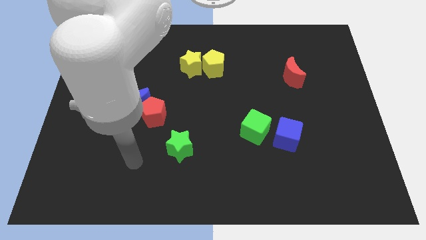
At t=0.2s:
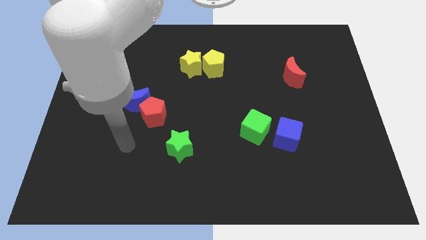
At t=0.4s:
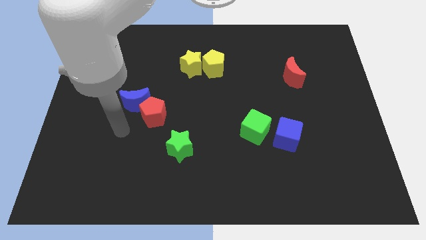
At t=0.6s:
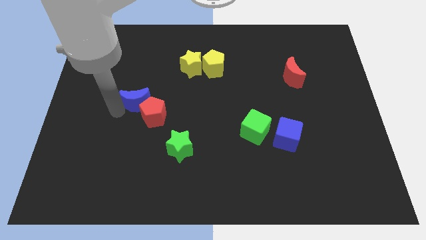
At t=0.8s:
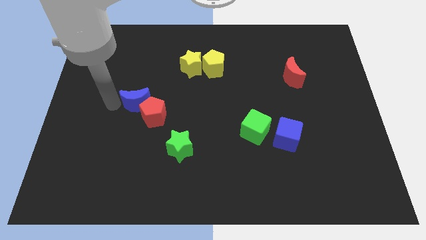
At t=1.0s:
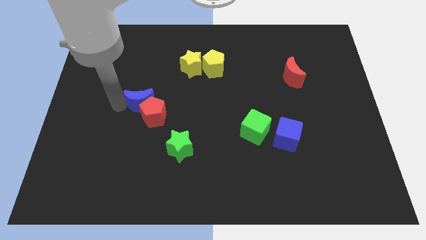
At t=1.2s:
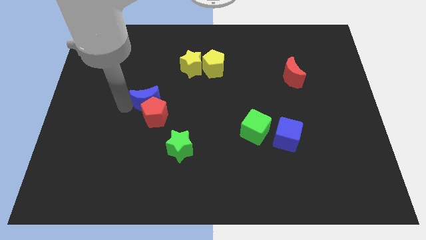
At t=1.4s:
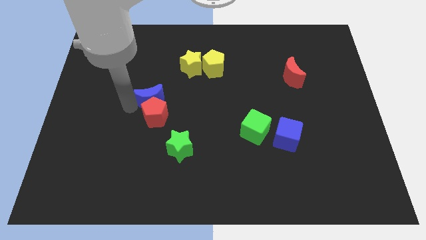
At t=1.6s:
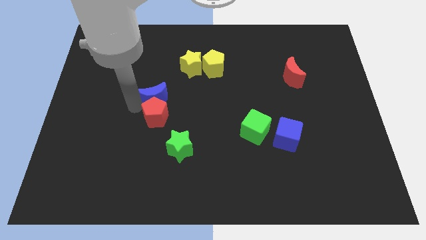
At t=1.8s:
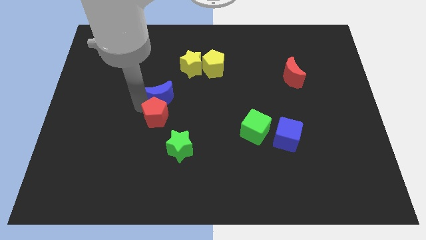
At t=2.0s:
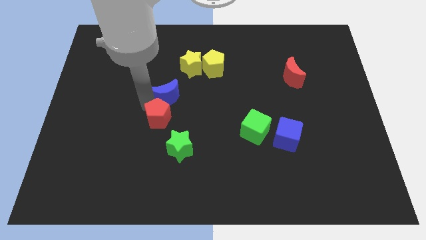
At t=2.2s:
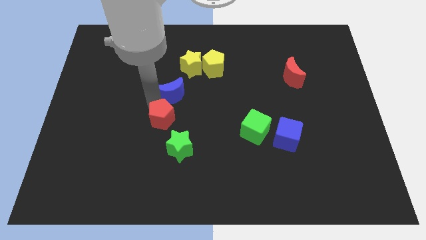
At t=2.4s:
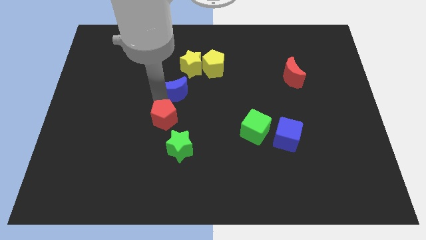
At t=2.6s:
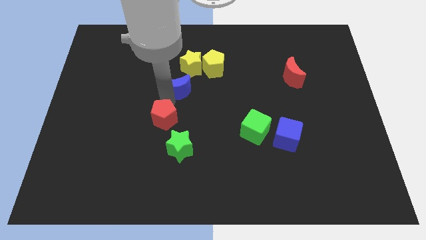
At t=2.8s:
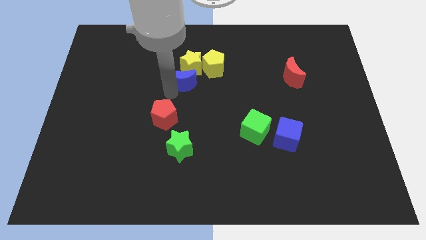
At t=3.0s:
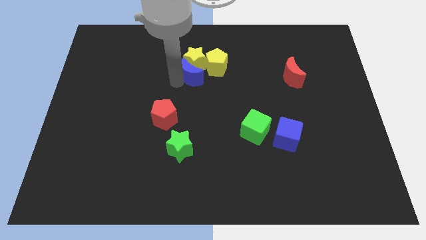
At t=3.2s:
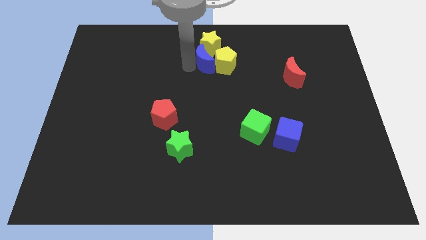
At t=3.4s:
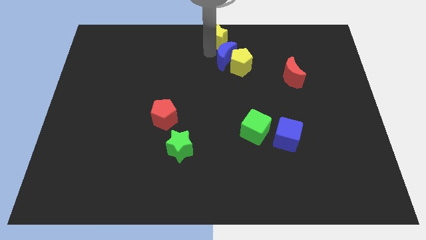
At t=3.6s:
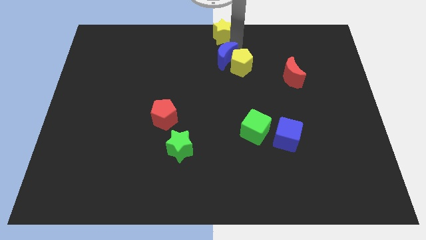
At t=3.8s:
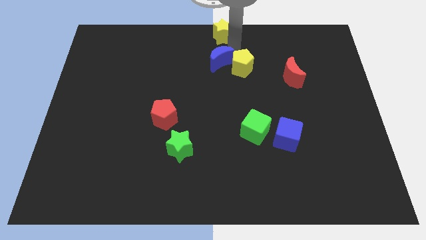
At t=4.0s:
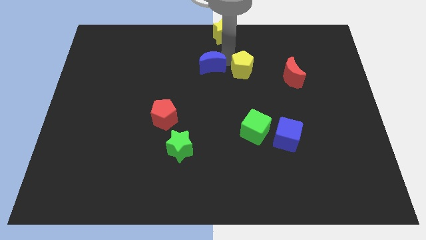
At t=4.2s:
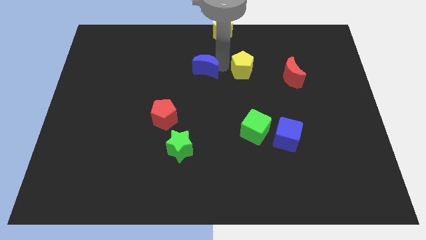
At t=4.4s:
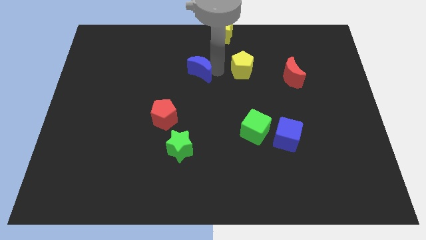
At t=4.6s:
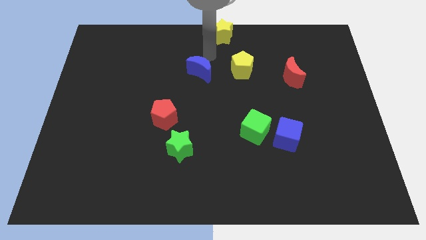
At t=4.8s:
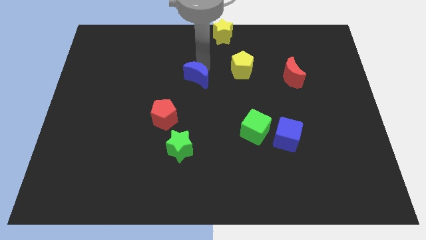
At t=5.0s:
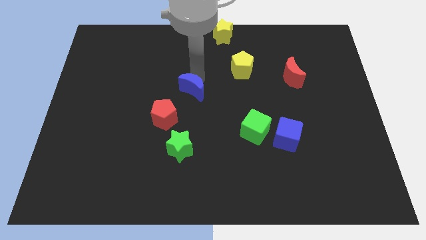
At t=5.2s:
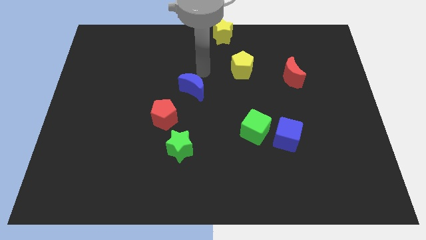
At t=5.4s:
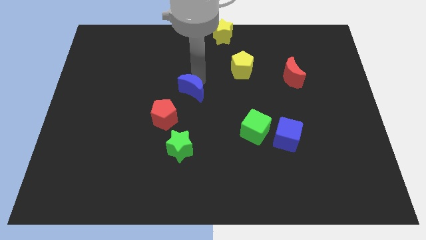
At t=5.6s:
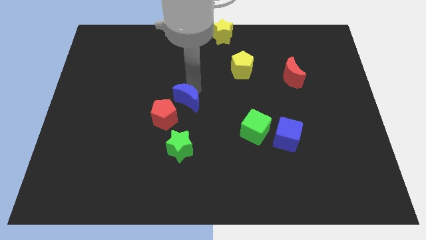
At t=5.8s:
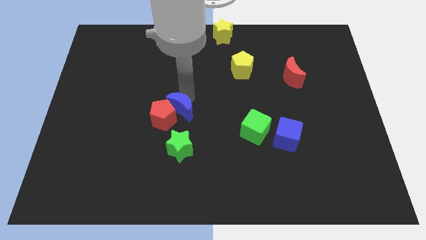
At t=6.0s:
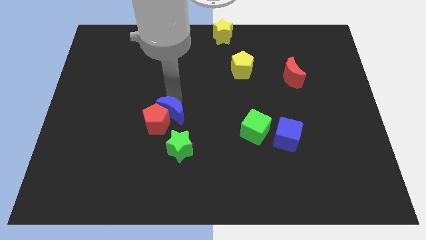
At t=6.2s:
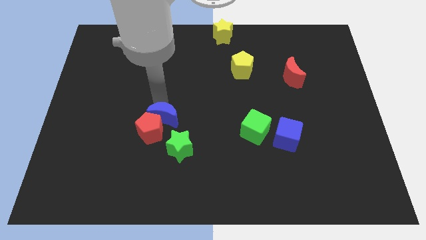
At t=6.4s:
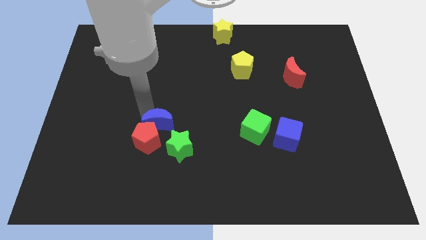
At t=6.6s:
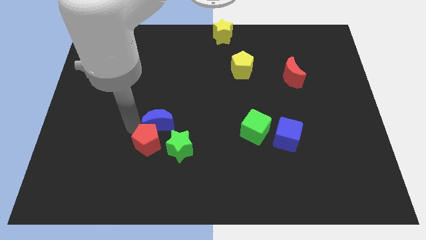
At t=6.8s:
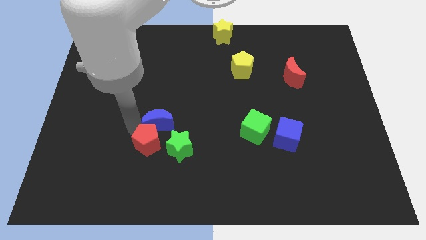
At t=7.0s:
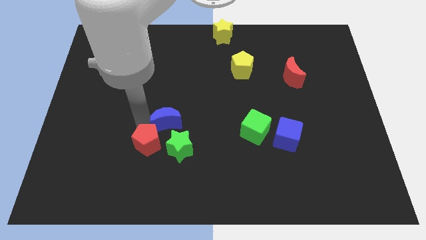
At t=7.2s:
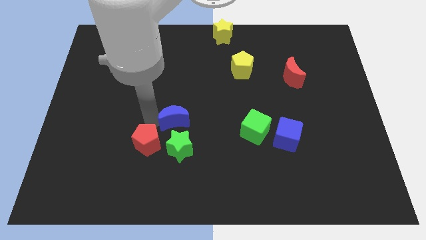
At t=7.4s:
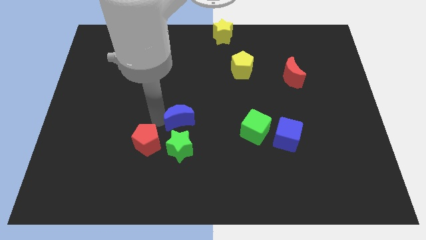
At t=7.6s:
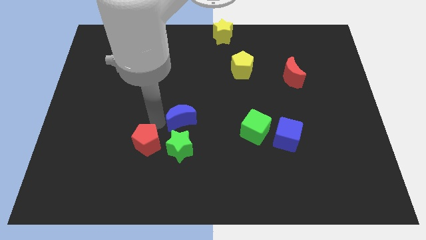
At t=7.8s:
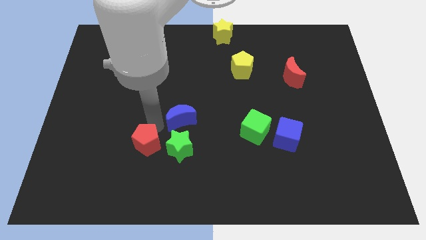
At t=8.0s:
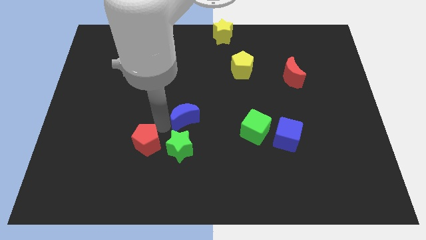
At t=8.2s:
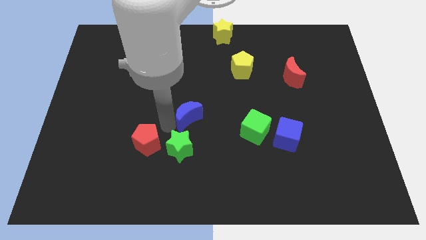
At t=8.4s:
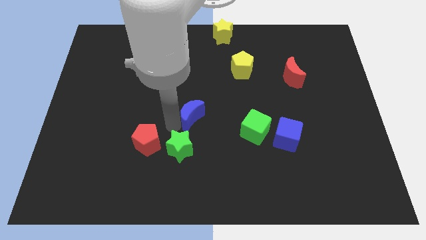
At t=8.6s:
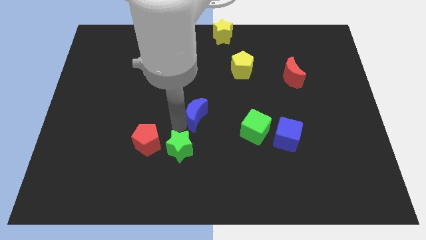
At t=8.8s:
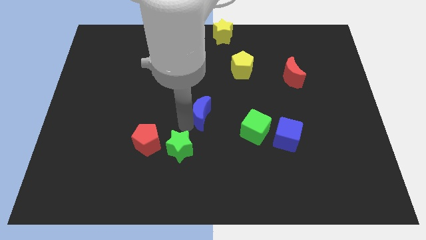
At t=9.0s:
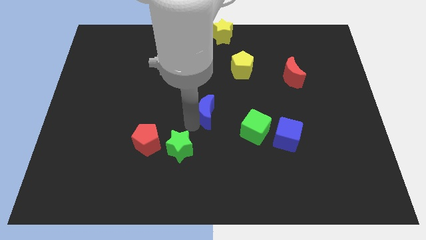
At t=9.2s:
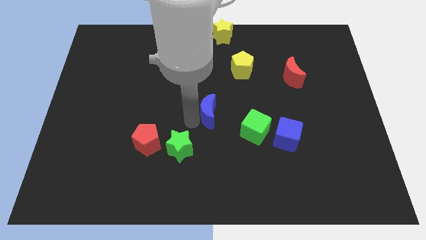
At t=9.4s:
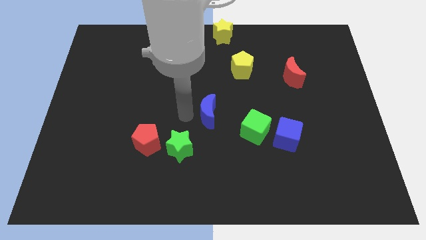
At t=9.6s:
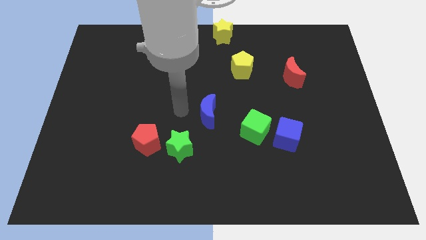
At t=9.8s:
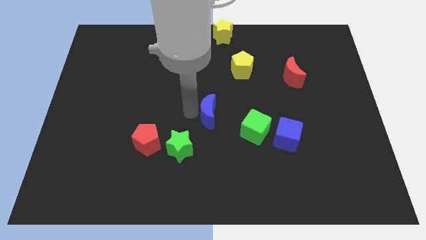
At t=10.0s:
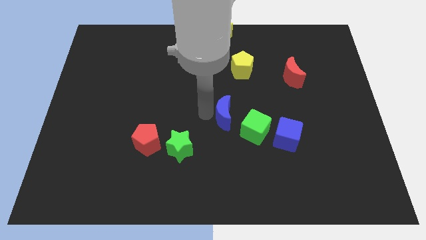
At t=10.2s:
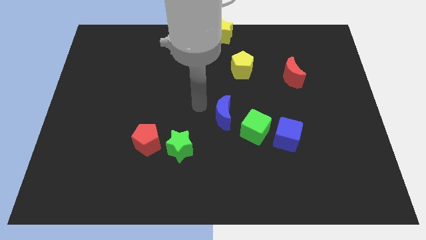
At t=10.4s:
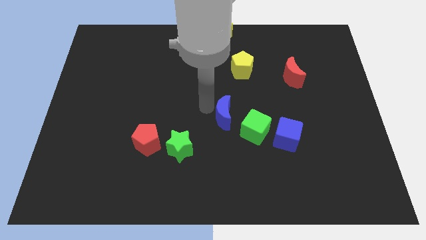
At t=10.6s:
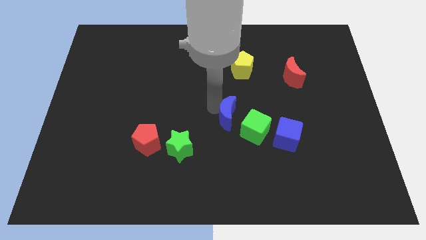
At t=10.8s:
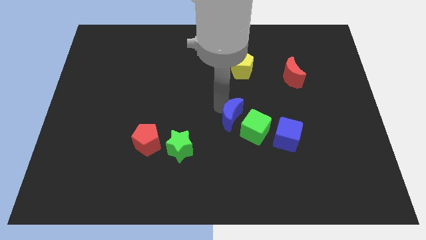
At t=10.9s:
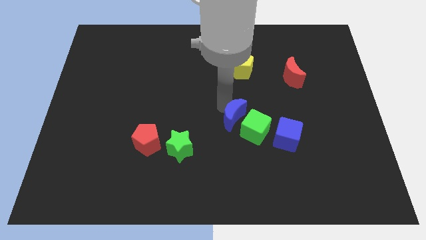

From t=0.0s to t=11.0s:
put the blue moon to the green cube

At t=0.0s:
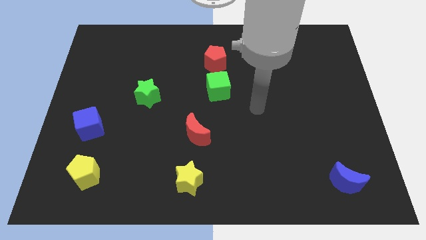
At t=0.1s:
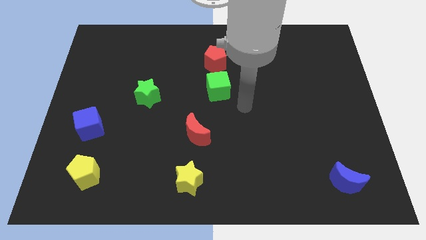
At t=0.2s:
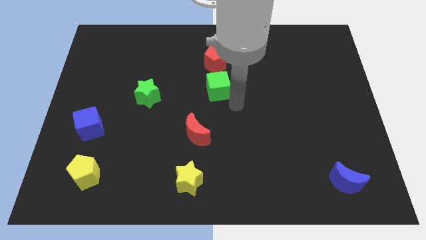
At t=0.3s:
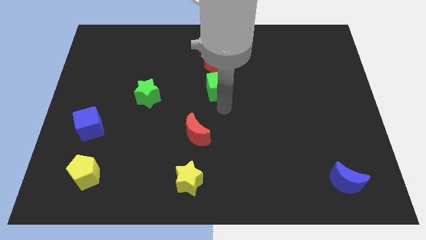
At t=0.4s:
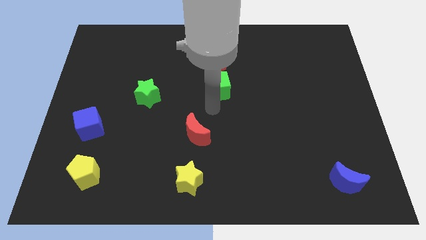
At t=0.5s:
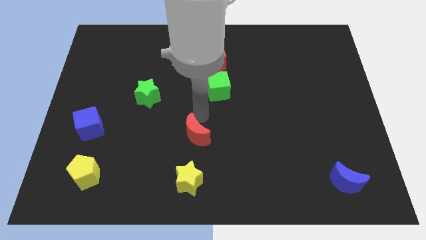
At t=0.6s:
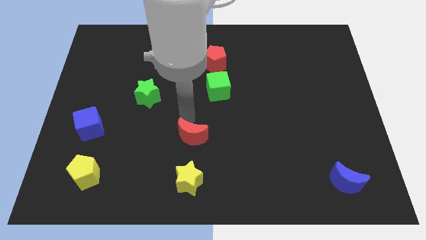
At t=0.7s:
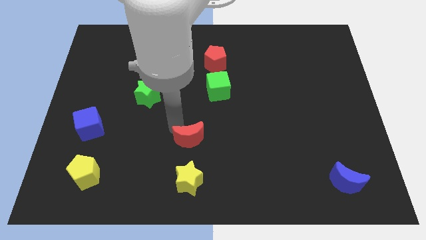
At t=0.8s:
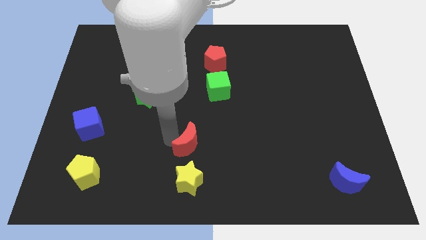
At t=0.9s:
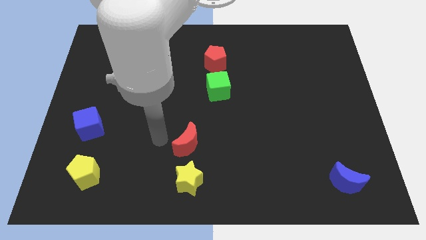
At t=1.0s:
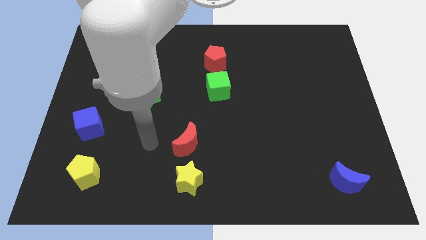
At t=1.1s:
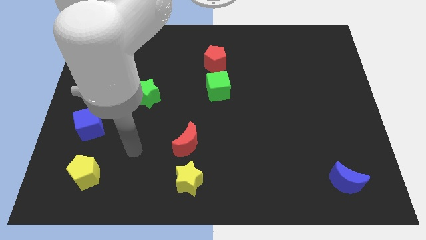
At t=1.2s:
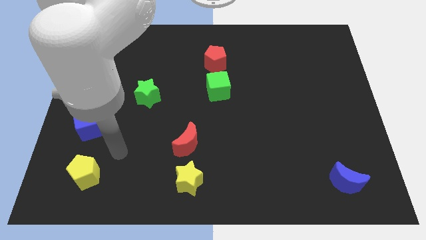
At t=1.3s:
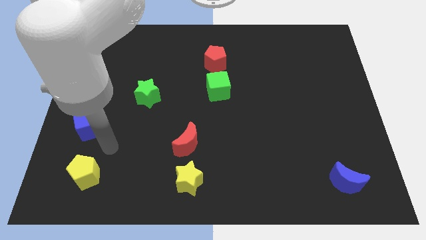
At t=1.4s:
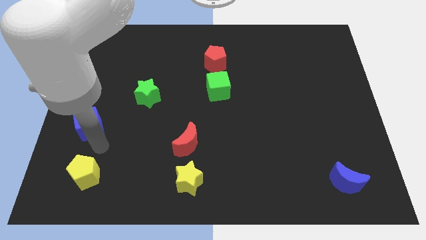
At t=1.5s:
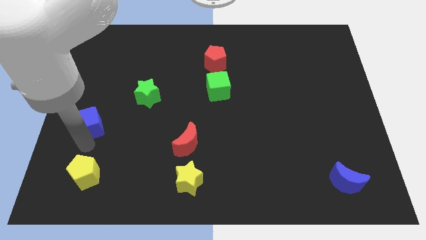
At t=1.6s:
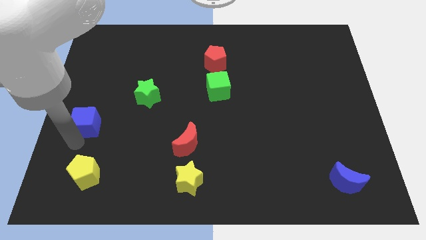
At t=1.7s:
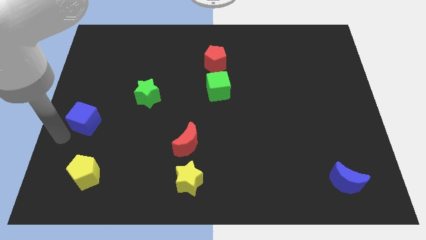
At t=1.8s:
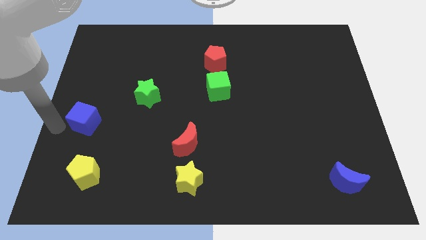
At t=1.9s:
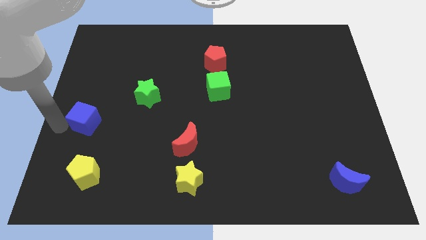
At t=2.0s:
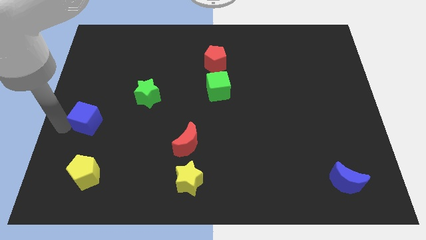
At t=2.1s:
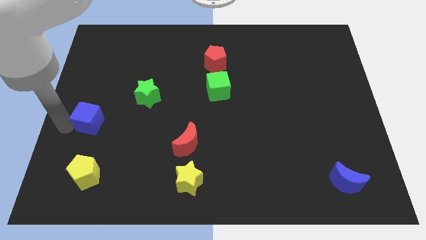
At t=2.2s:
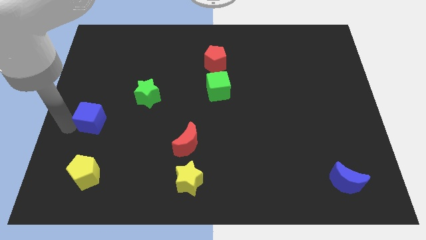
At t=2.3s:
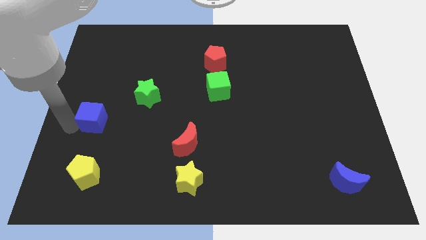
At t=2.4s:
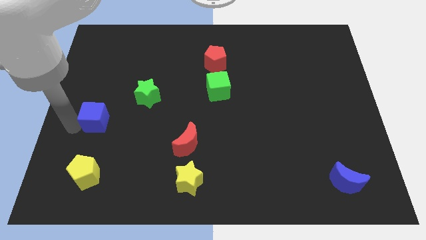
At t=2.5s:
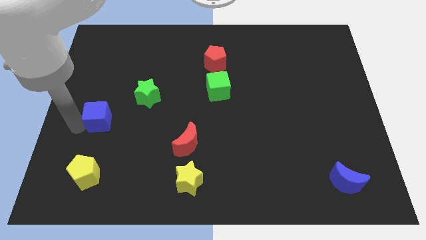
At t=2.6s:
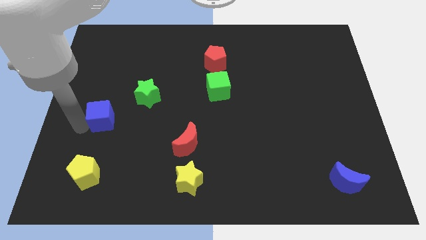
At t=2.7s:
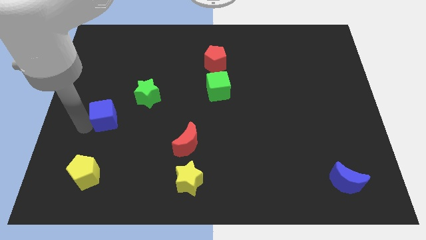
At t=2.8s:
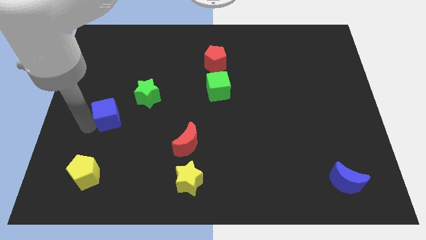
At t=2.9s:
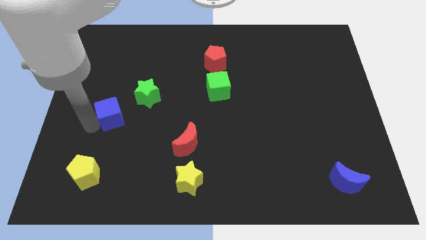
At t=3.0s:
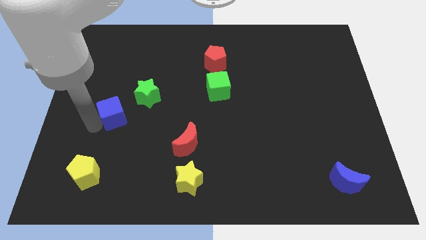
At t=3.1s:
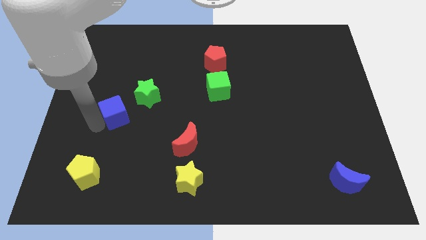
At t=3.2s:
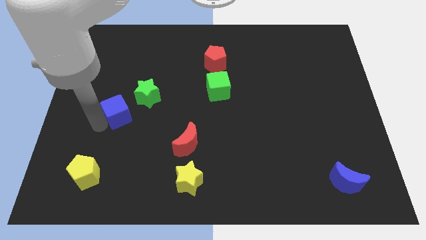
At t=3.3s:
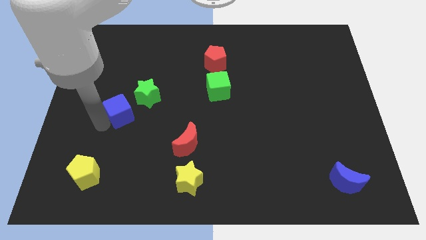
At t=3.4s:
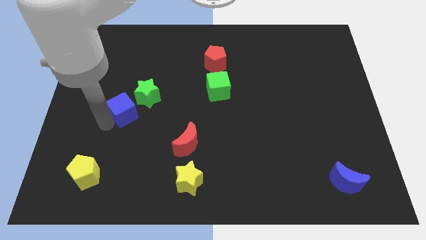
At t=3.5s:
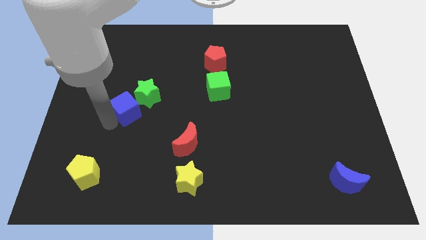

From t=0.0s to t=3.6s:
slide the blue cube towards the green star
